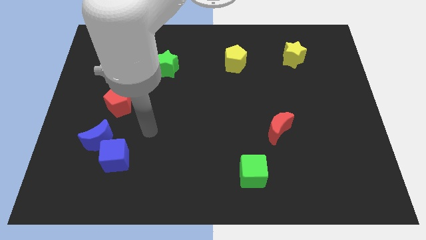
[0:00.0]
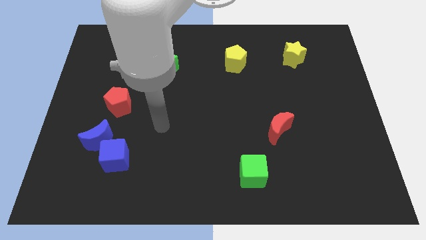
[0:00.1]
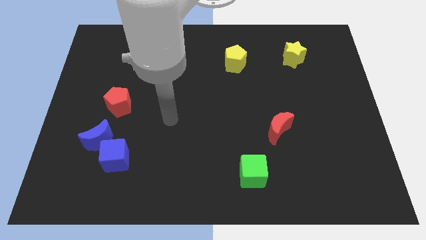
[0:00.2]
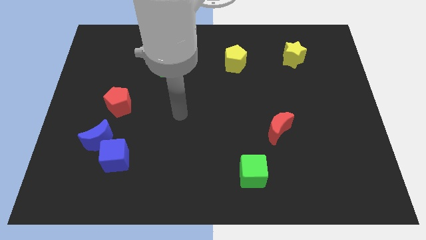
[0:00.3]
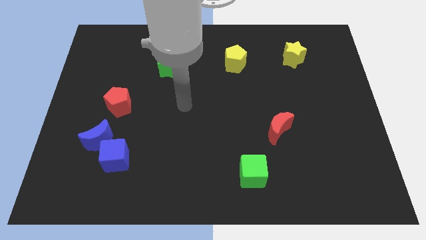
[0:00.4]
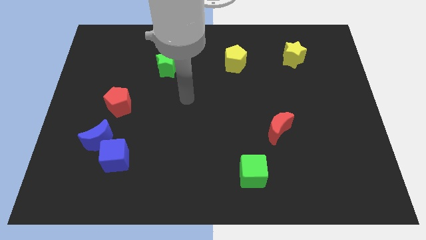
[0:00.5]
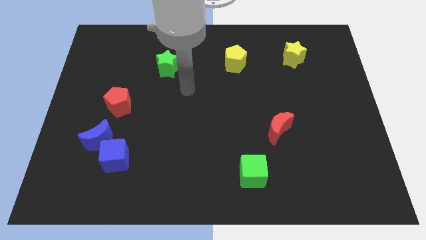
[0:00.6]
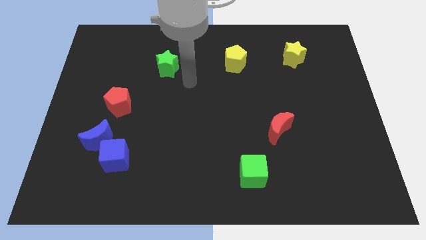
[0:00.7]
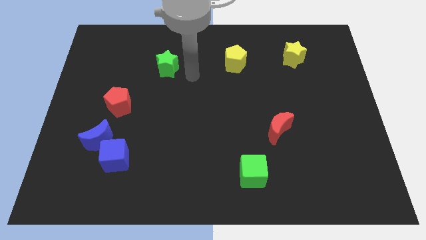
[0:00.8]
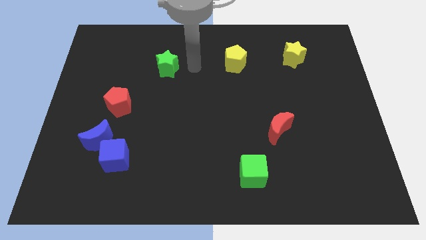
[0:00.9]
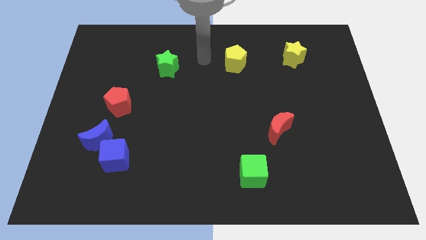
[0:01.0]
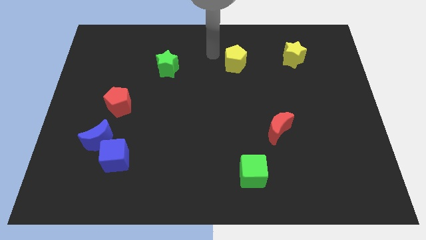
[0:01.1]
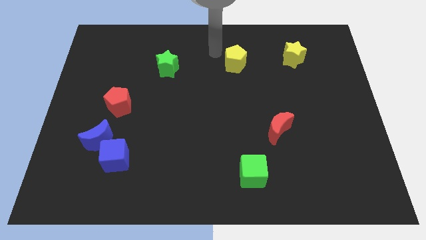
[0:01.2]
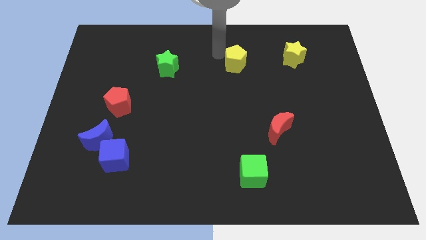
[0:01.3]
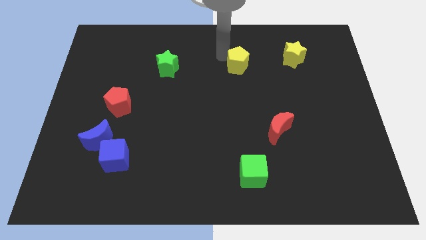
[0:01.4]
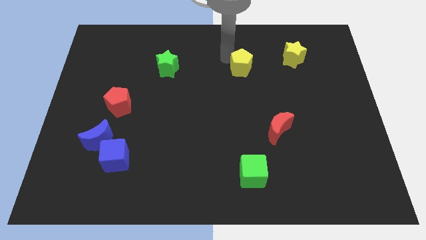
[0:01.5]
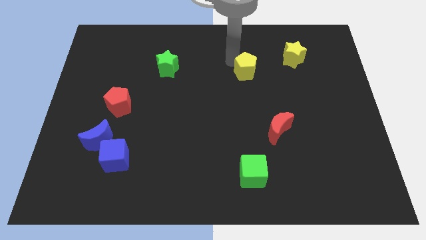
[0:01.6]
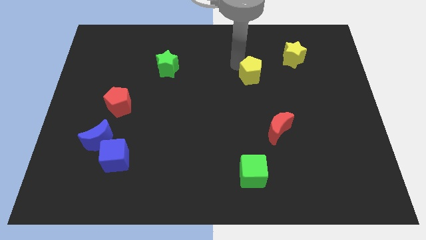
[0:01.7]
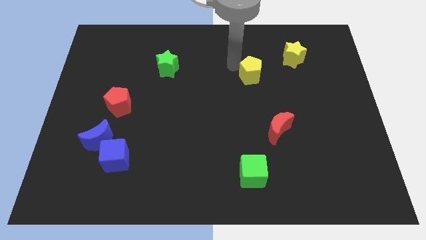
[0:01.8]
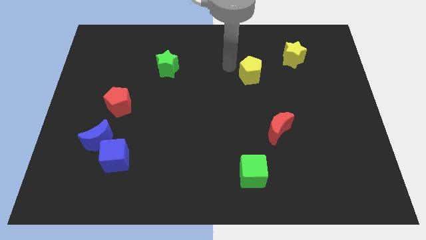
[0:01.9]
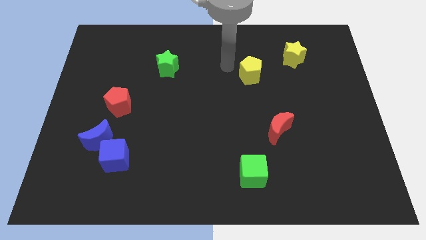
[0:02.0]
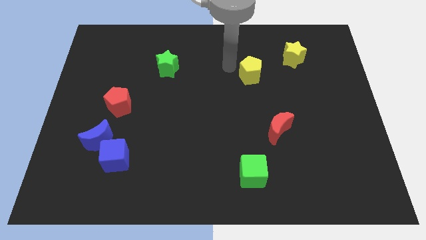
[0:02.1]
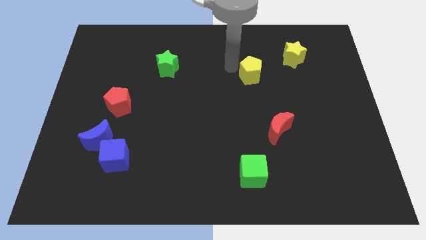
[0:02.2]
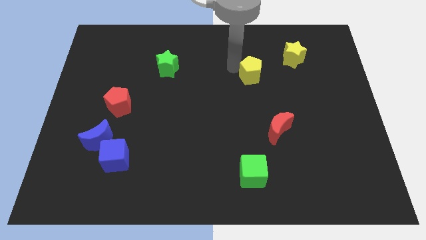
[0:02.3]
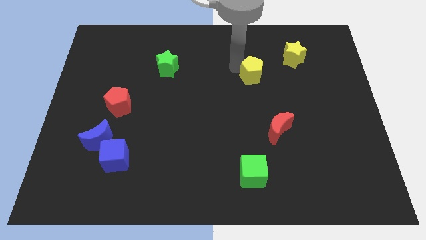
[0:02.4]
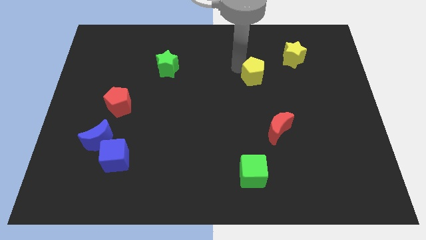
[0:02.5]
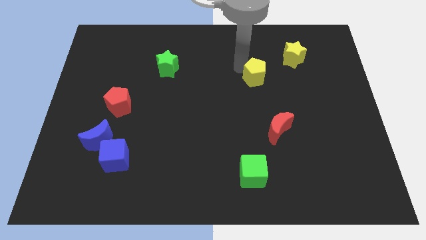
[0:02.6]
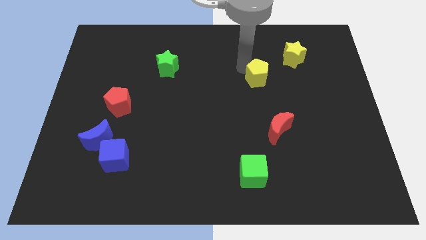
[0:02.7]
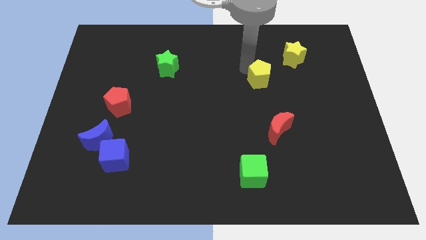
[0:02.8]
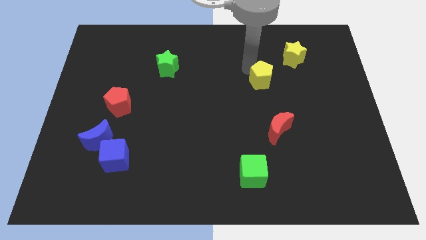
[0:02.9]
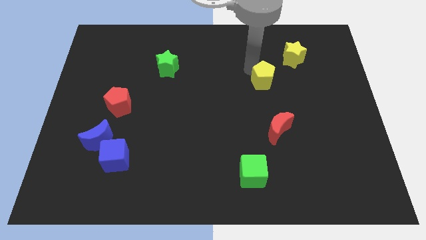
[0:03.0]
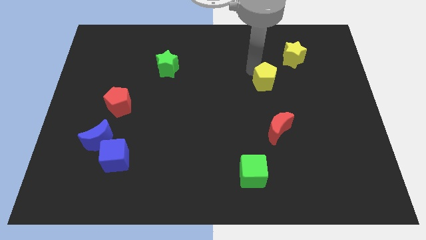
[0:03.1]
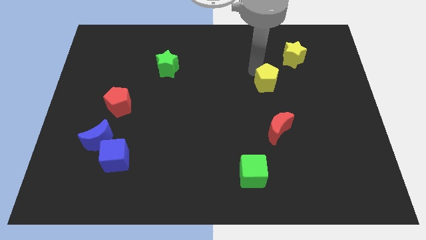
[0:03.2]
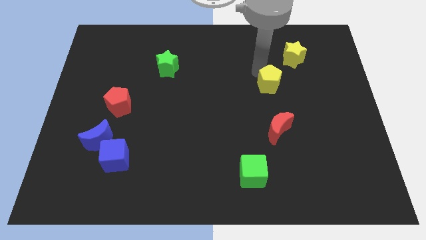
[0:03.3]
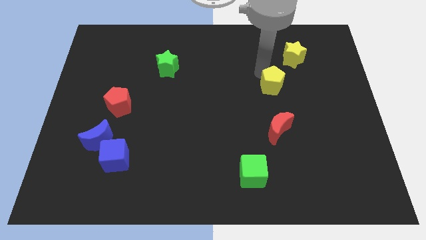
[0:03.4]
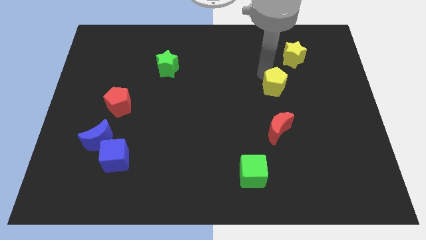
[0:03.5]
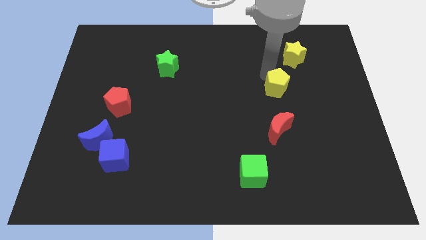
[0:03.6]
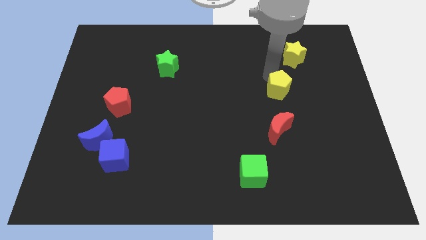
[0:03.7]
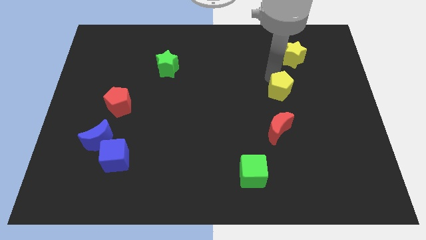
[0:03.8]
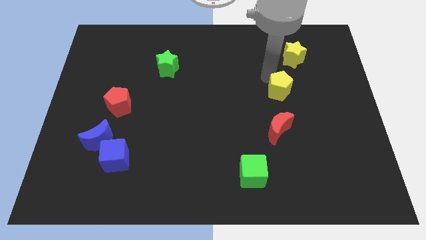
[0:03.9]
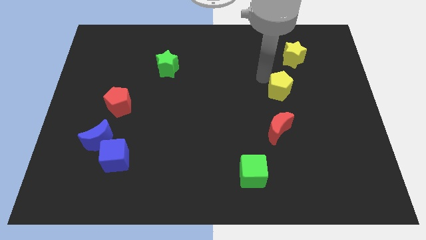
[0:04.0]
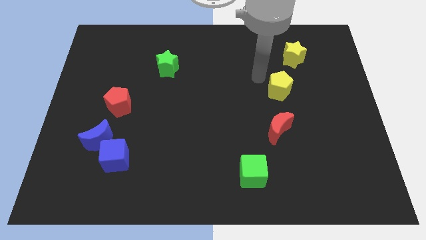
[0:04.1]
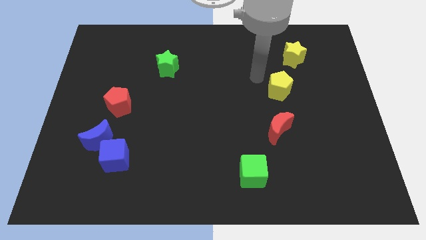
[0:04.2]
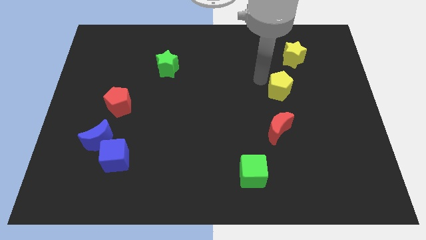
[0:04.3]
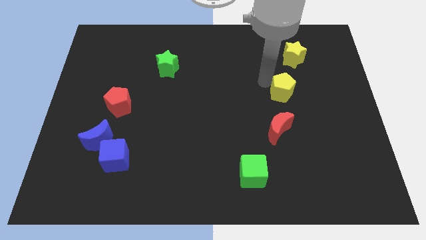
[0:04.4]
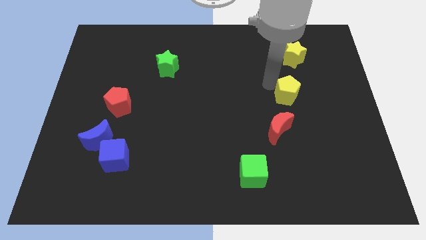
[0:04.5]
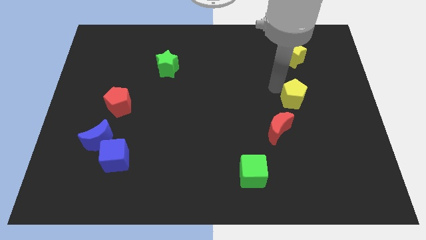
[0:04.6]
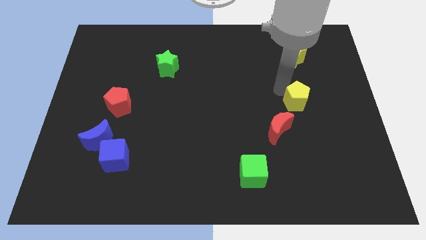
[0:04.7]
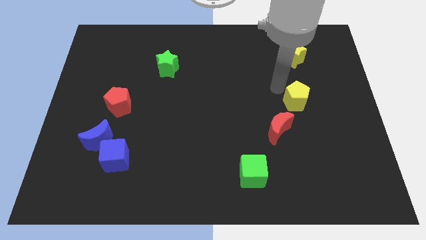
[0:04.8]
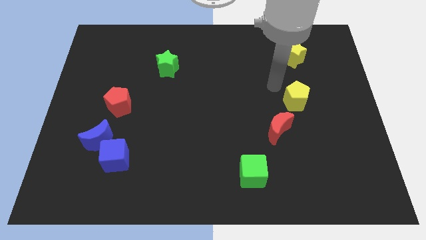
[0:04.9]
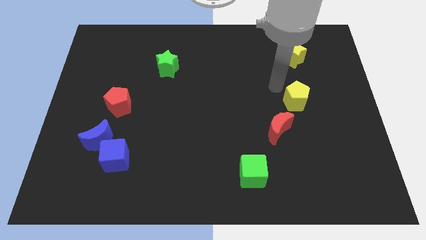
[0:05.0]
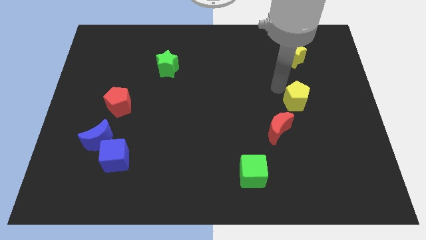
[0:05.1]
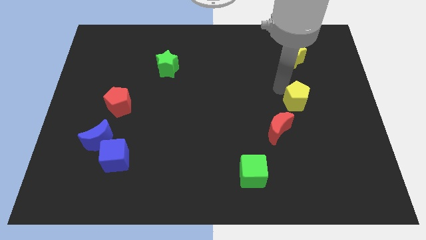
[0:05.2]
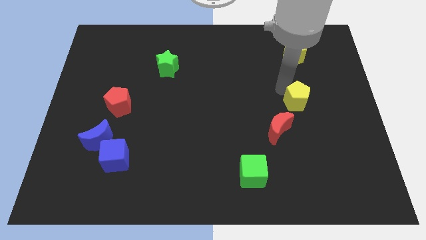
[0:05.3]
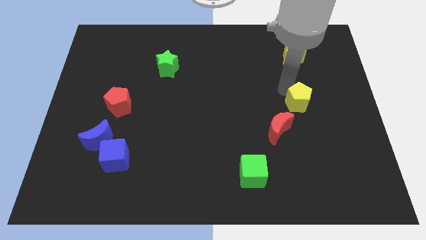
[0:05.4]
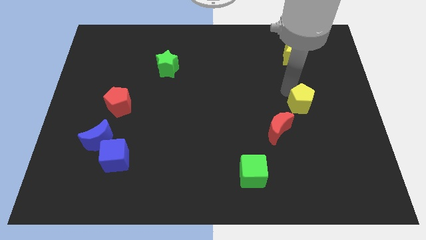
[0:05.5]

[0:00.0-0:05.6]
move the yellow pentagon diagonally down and to the right

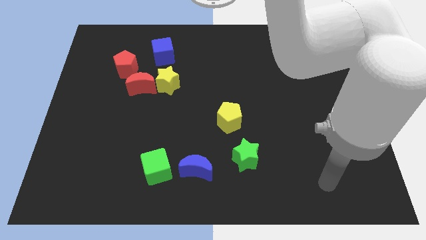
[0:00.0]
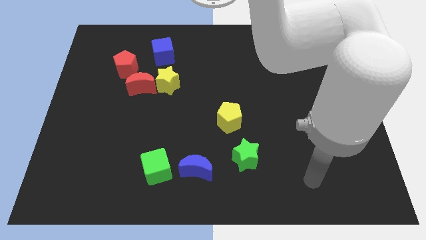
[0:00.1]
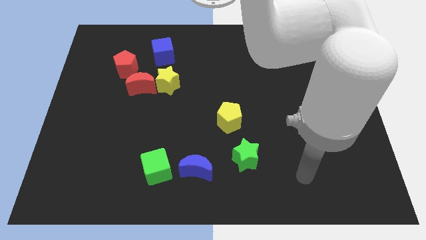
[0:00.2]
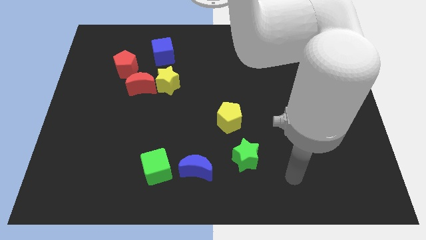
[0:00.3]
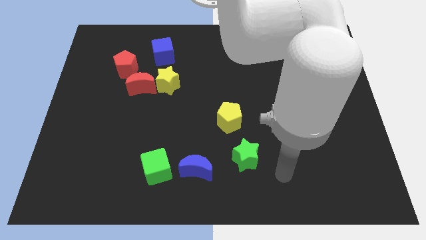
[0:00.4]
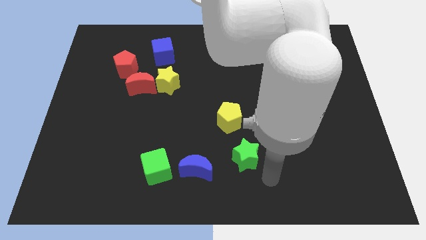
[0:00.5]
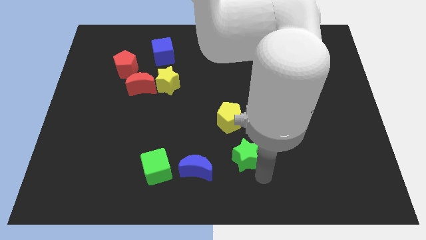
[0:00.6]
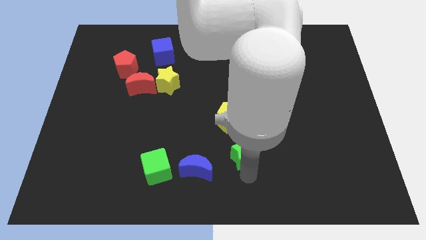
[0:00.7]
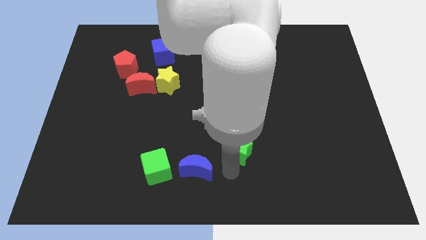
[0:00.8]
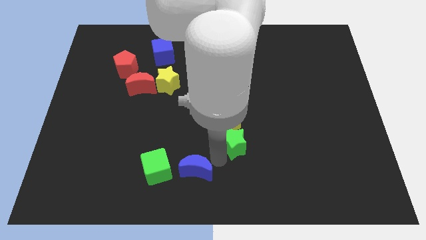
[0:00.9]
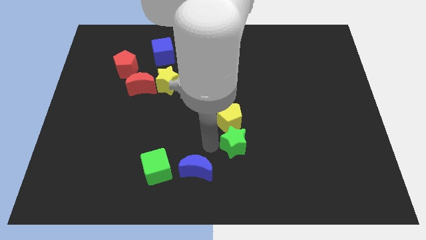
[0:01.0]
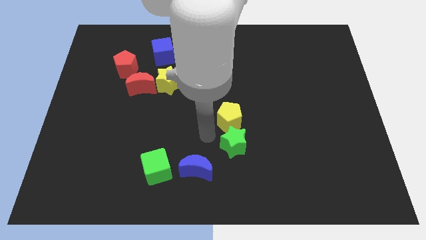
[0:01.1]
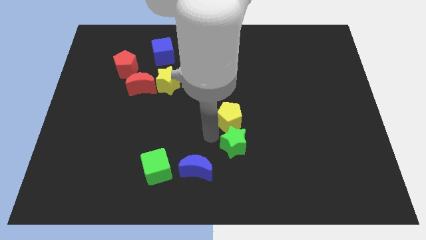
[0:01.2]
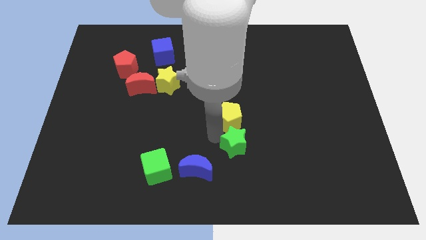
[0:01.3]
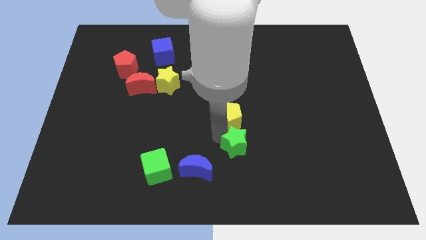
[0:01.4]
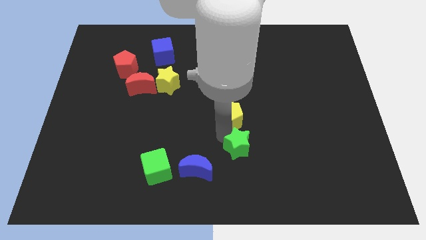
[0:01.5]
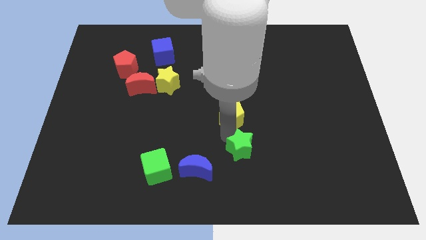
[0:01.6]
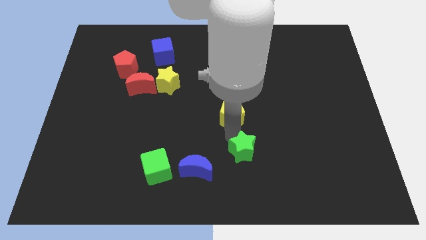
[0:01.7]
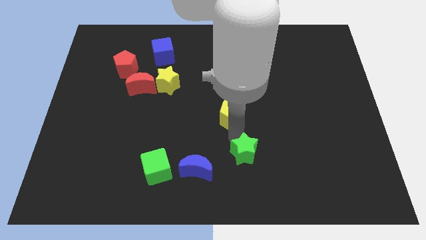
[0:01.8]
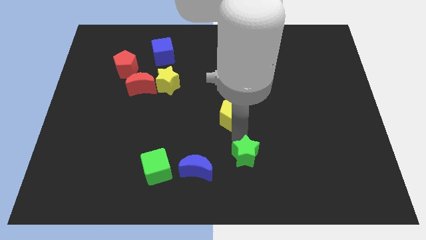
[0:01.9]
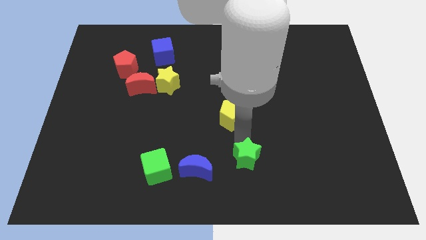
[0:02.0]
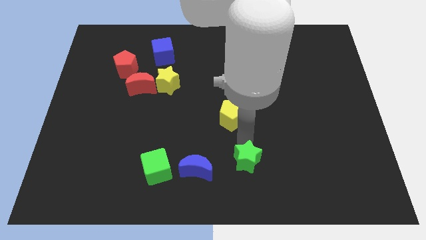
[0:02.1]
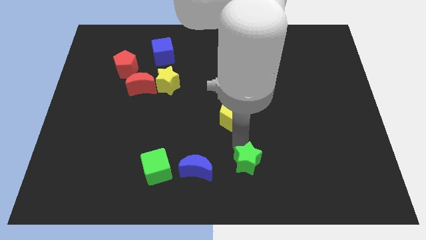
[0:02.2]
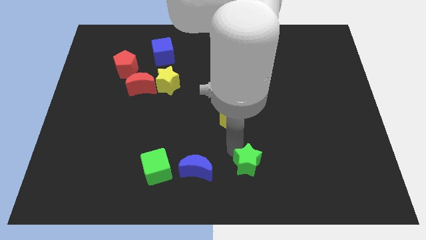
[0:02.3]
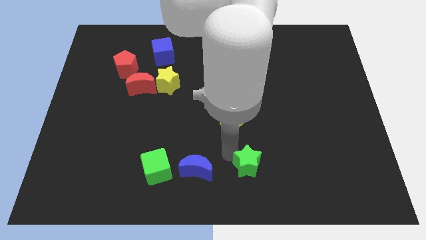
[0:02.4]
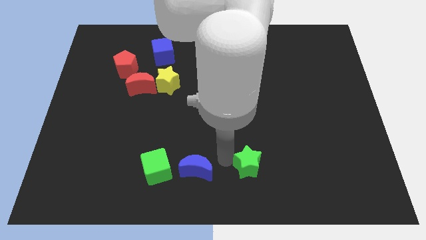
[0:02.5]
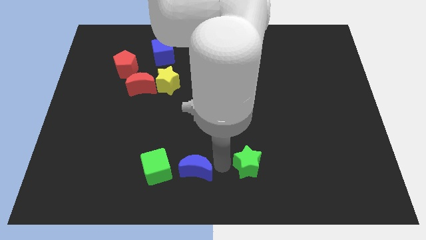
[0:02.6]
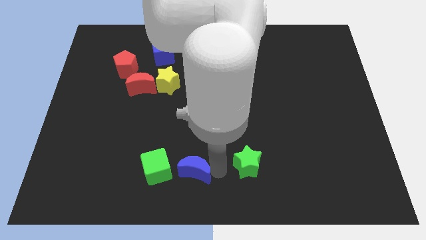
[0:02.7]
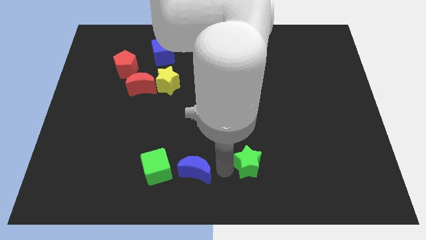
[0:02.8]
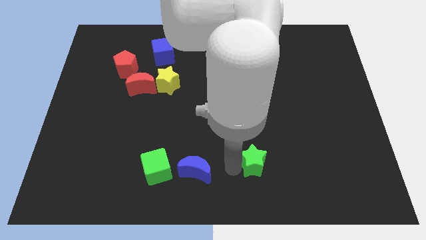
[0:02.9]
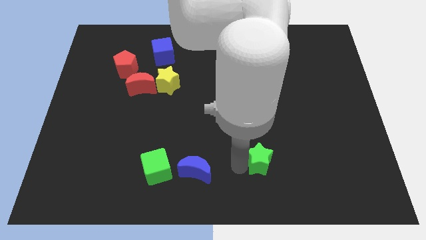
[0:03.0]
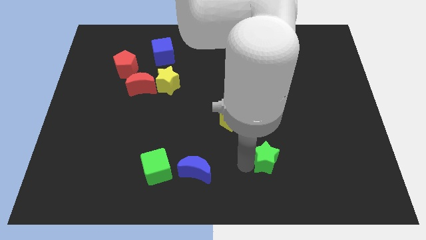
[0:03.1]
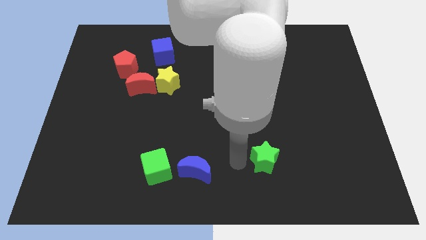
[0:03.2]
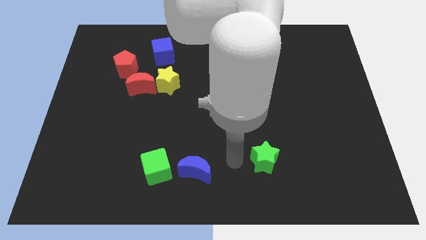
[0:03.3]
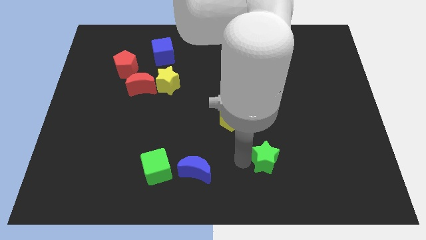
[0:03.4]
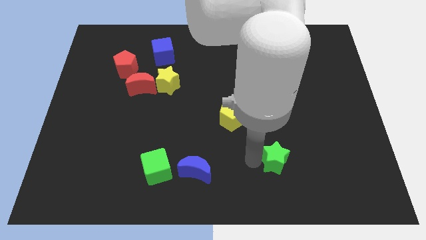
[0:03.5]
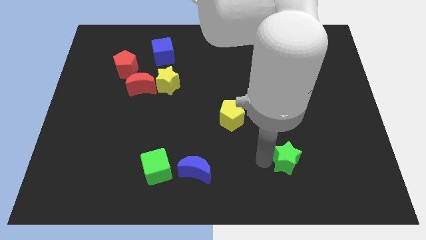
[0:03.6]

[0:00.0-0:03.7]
move the green star right a little bit
